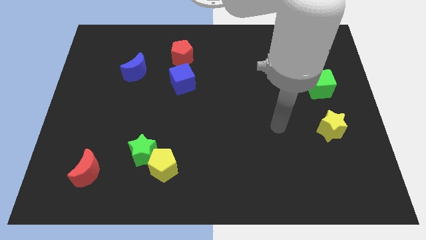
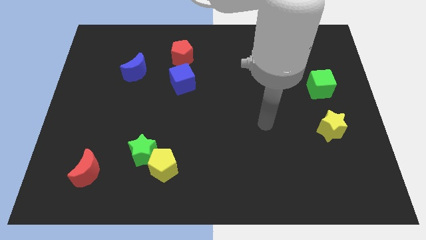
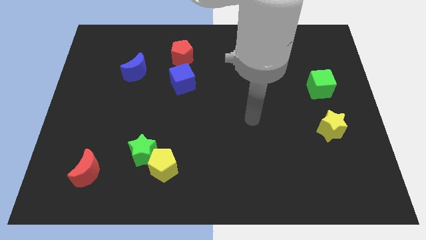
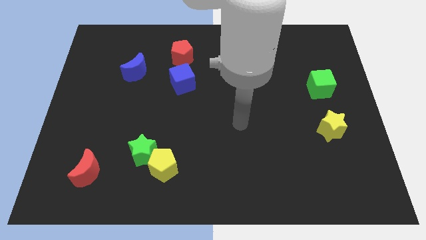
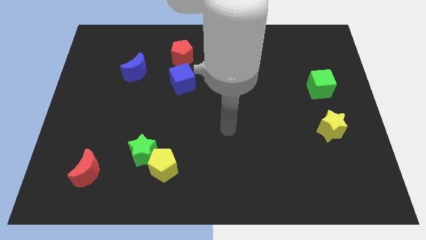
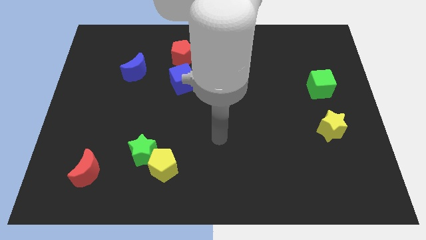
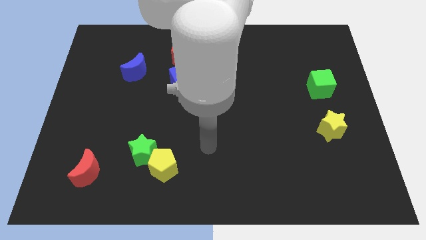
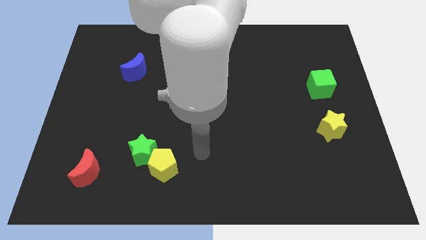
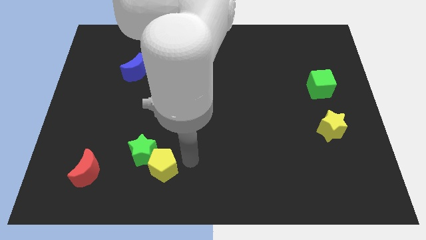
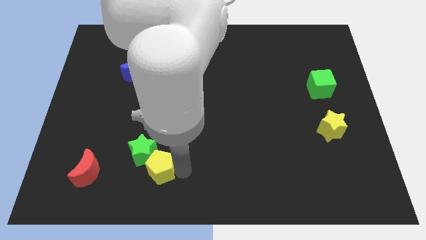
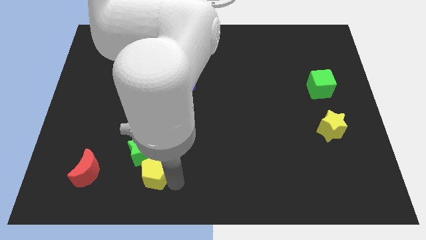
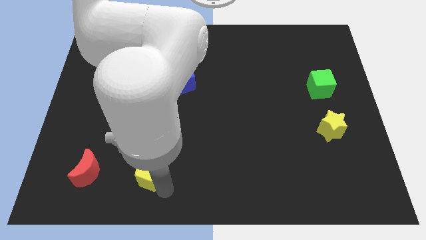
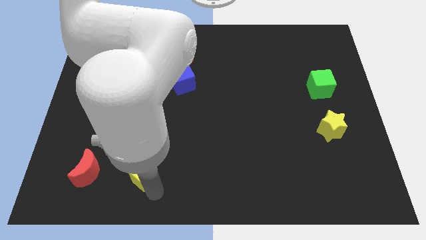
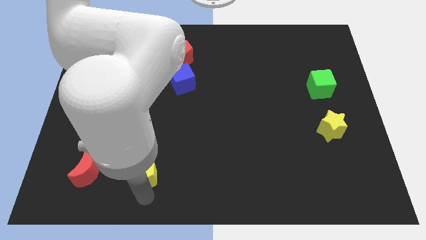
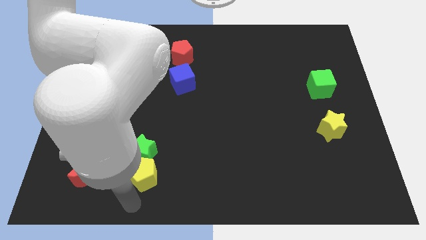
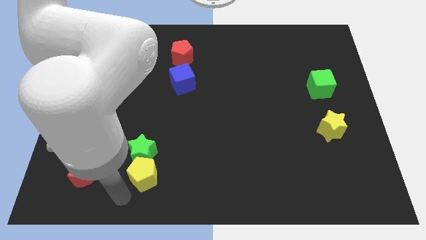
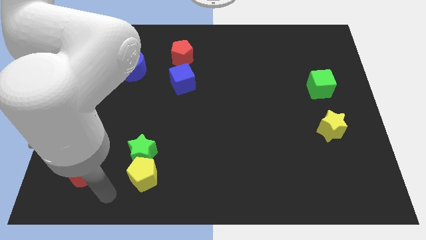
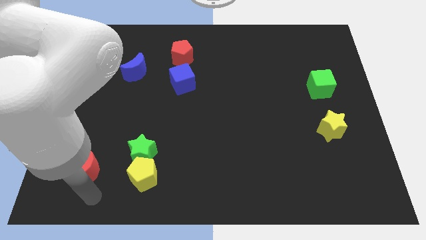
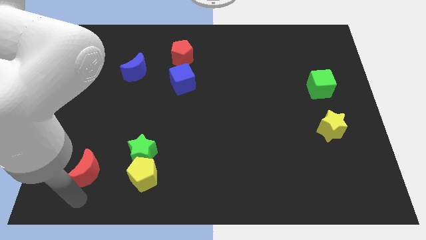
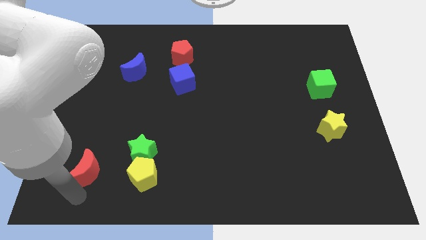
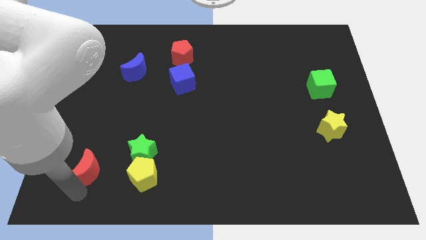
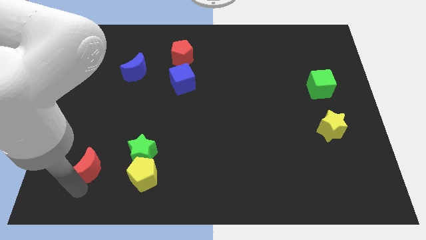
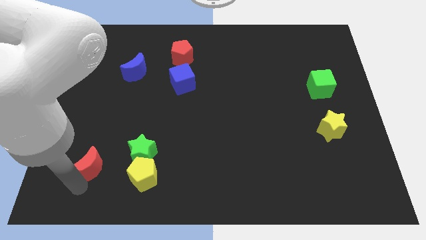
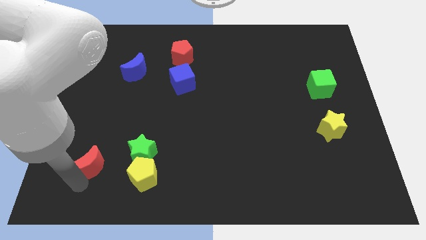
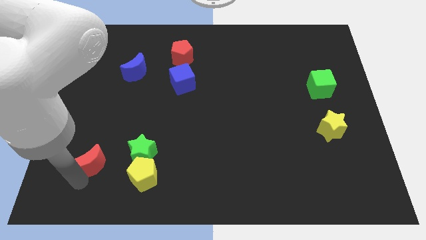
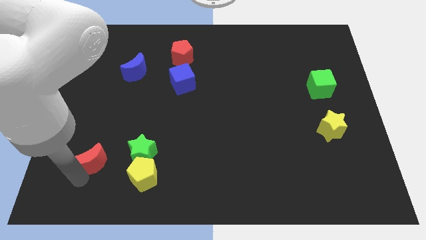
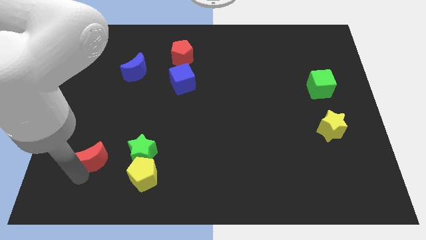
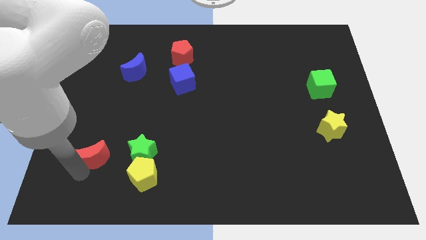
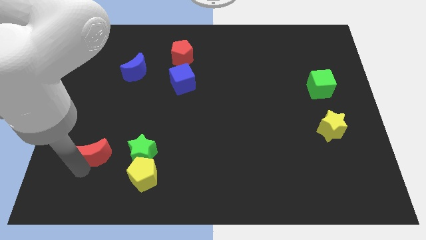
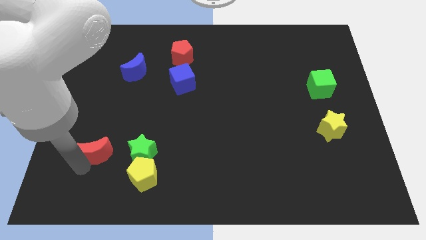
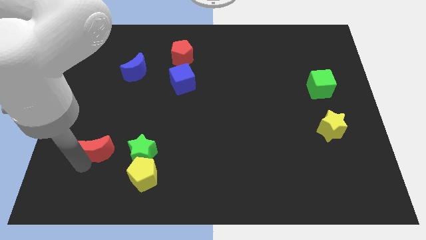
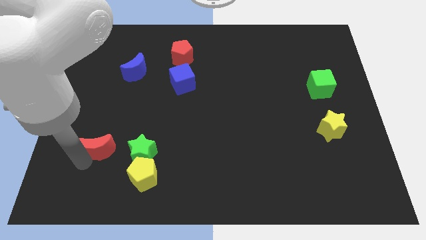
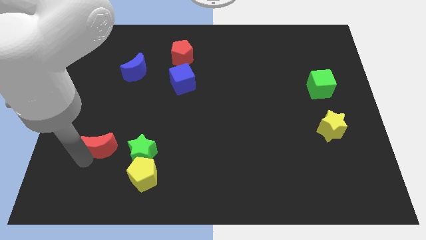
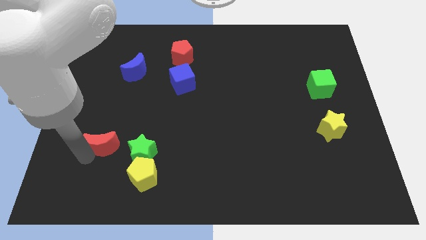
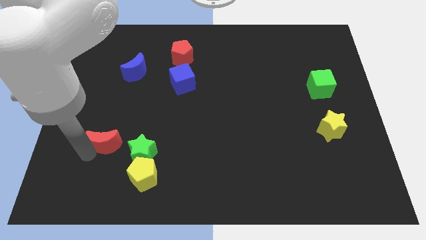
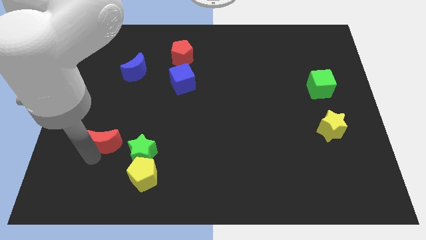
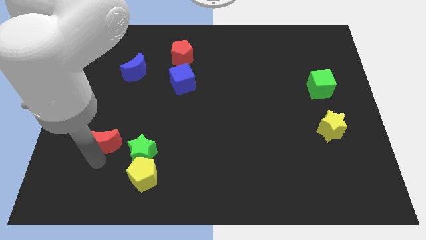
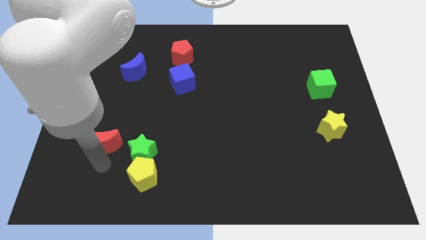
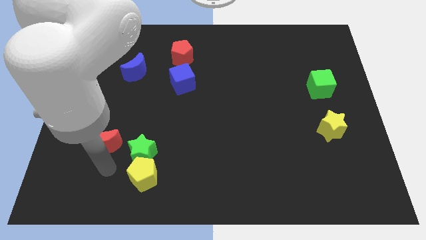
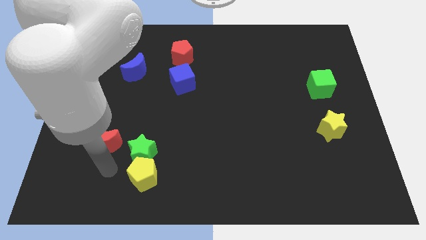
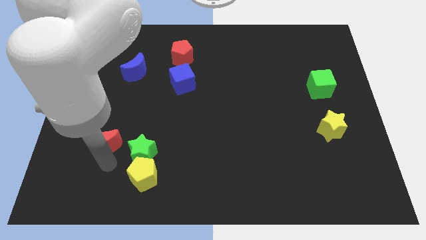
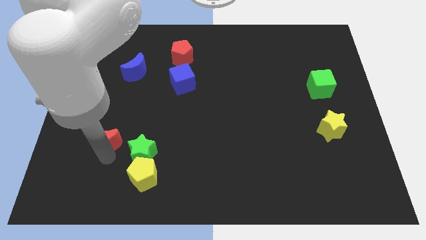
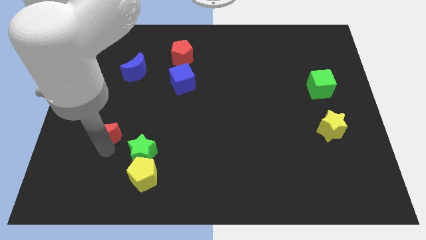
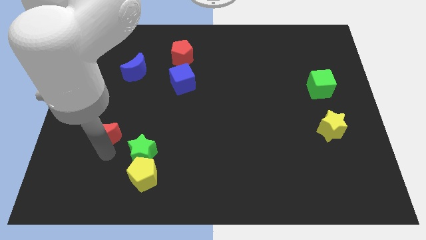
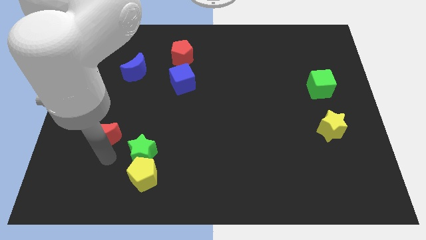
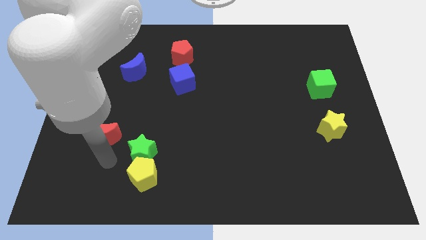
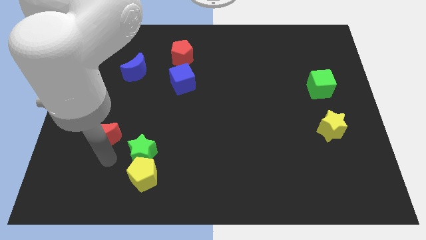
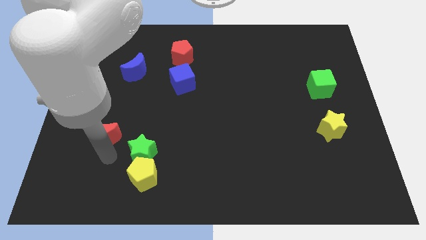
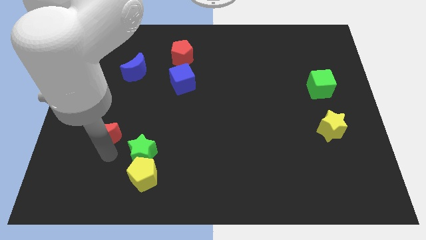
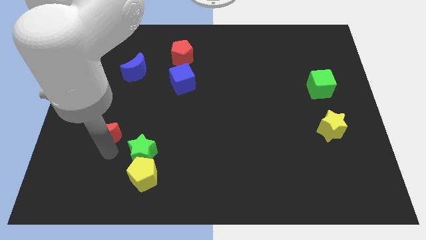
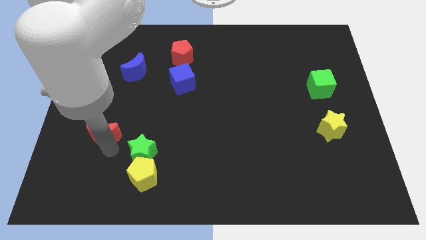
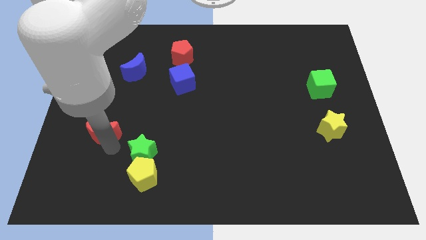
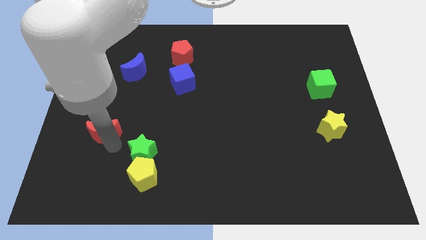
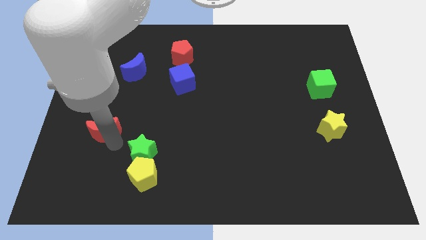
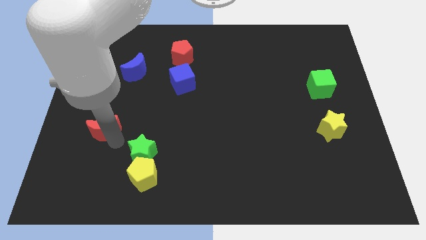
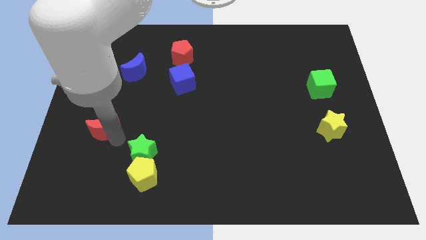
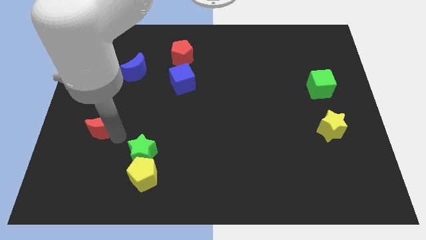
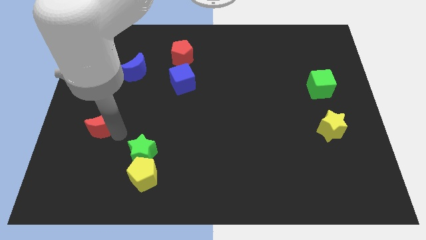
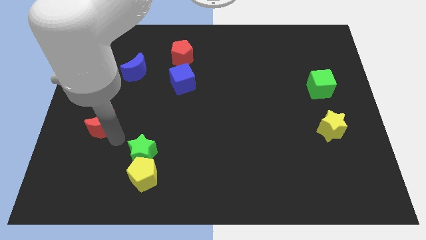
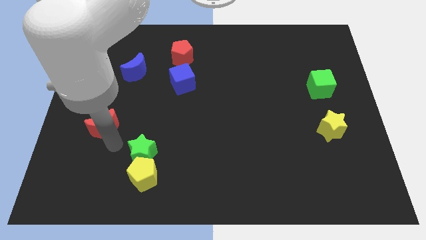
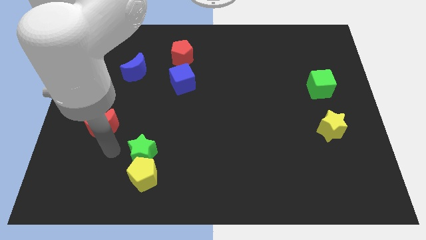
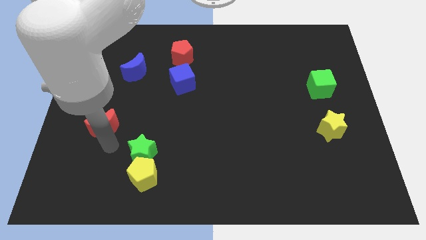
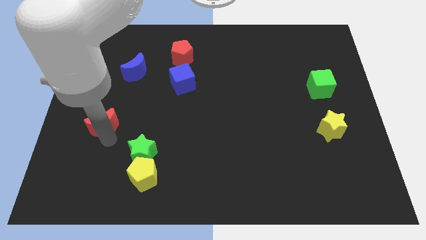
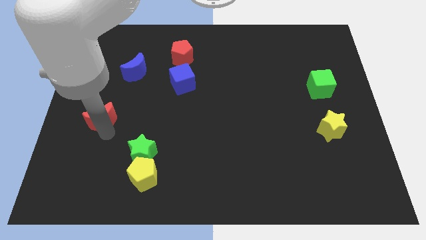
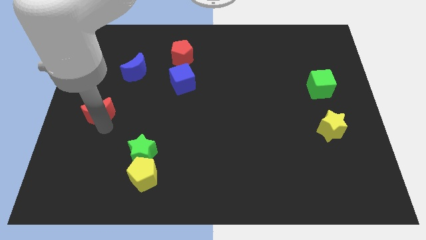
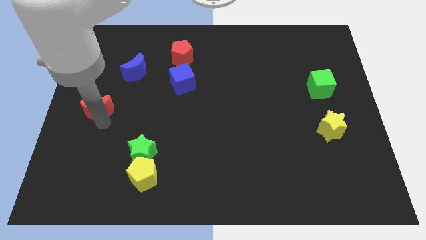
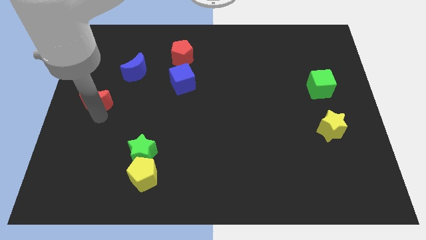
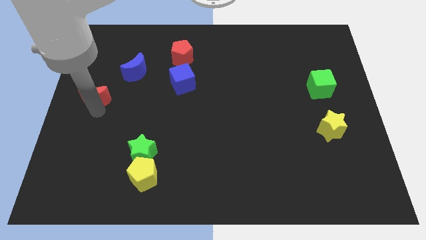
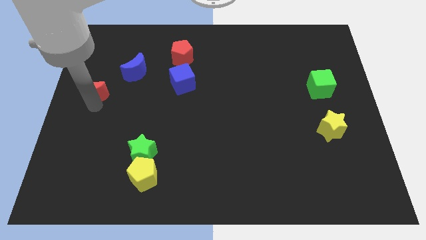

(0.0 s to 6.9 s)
move the red moon upwards

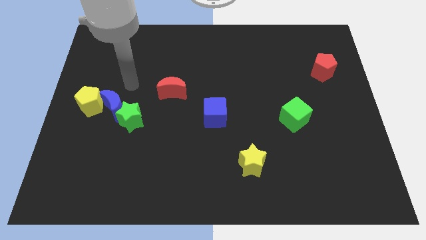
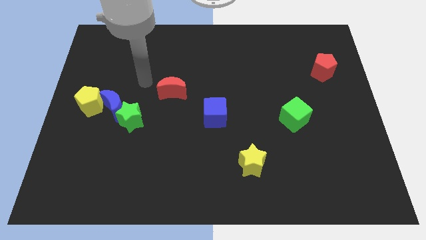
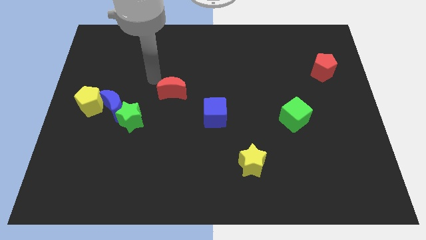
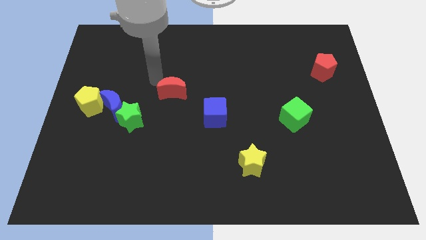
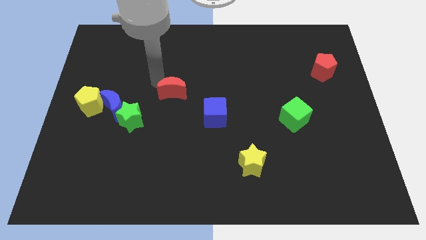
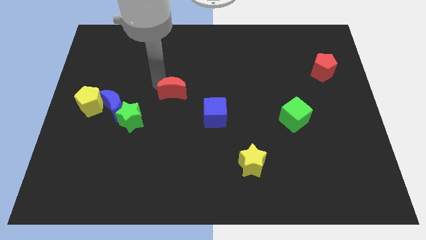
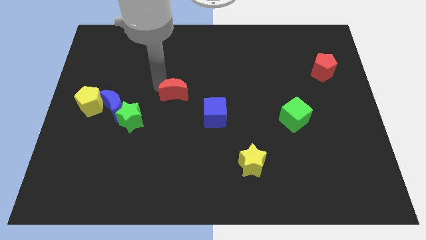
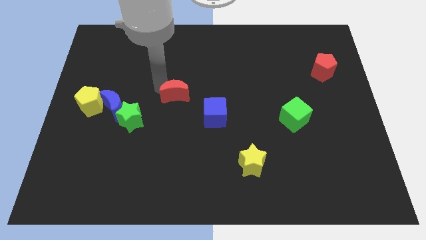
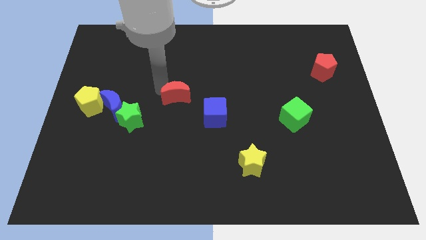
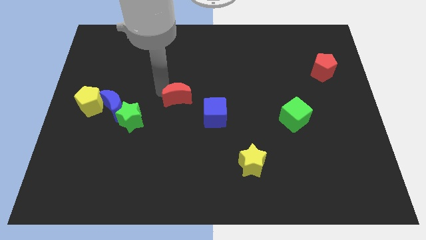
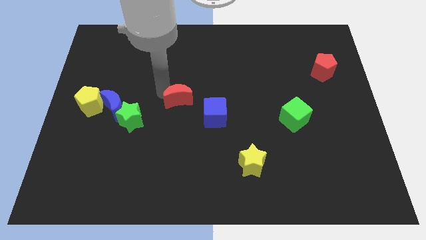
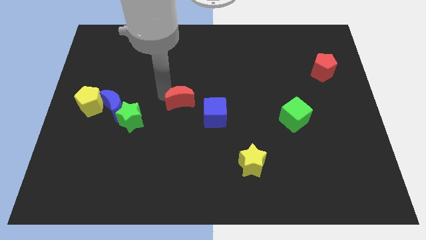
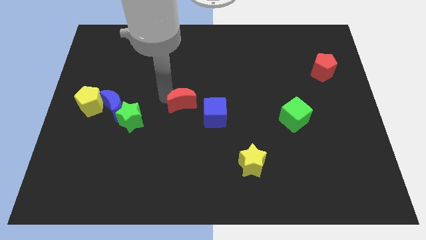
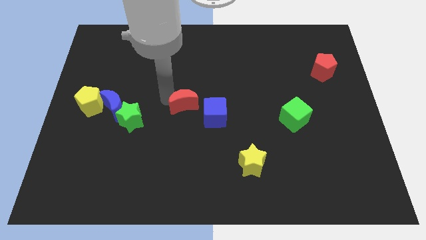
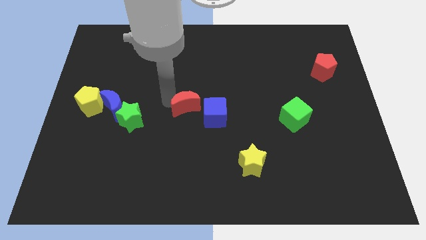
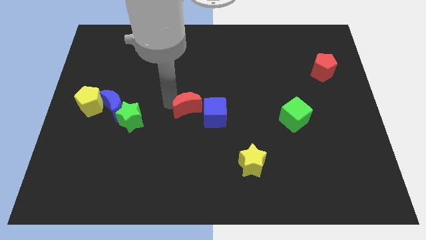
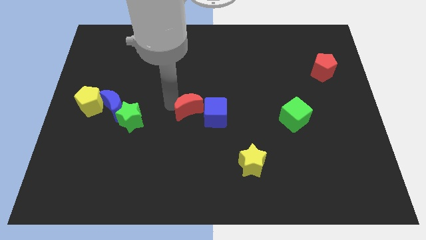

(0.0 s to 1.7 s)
slide the red moon downwards and then to the right a bit
